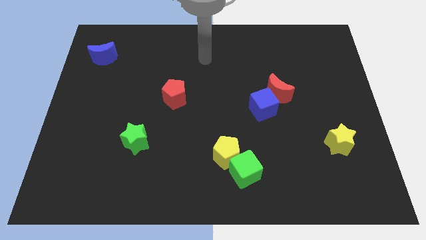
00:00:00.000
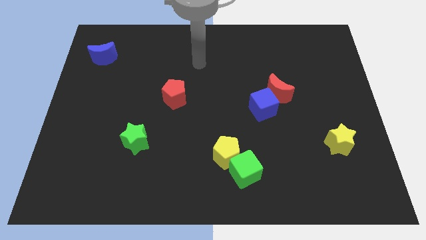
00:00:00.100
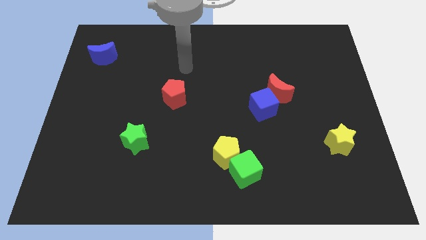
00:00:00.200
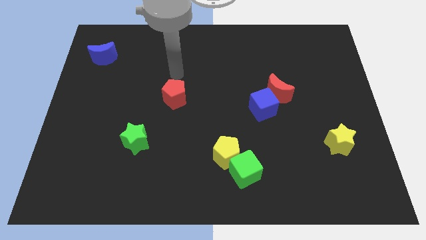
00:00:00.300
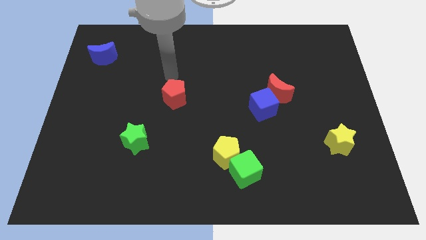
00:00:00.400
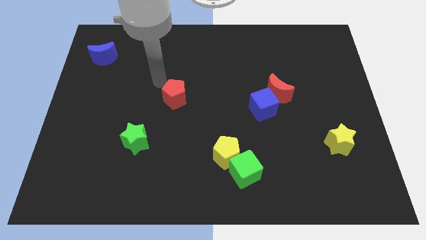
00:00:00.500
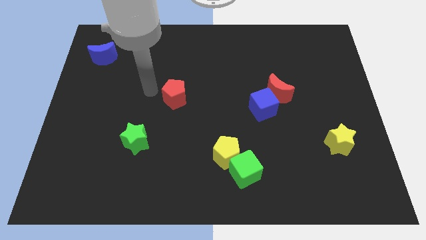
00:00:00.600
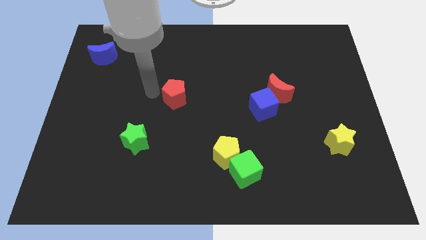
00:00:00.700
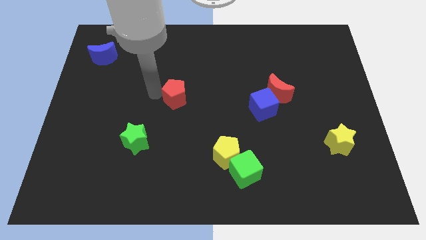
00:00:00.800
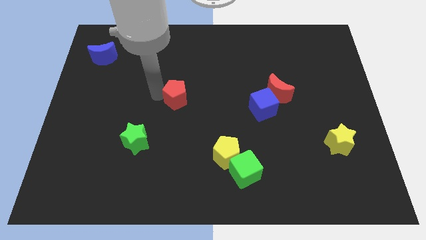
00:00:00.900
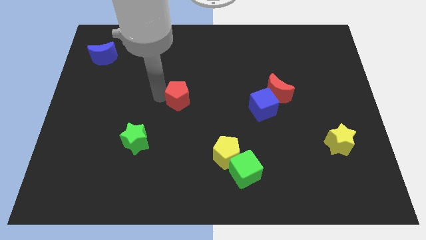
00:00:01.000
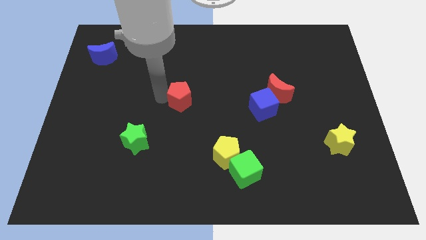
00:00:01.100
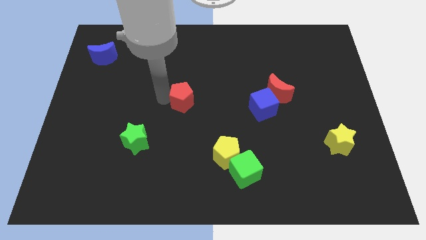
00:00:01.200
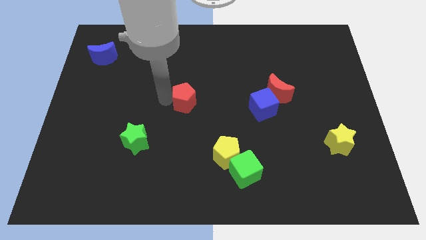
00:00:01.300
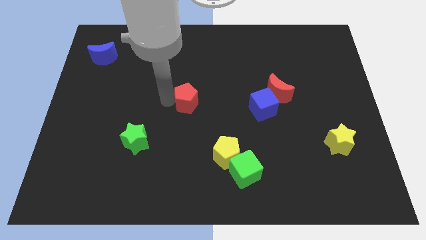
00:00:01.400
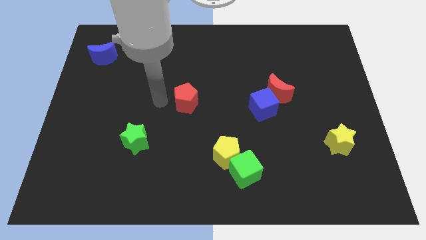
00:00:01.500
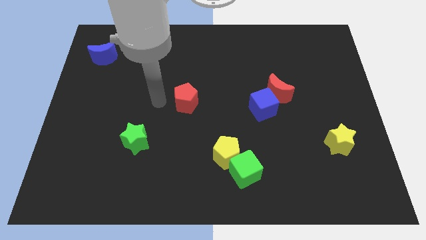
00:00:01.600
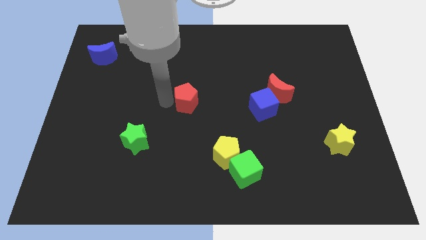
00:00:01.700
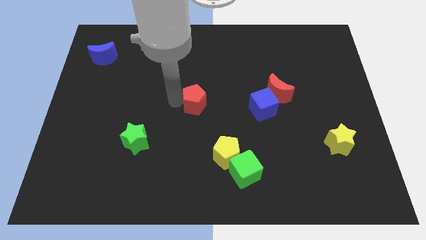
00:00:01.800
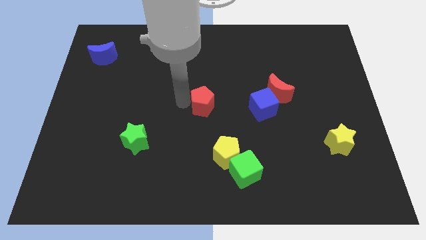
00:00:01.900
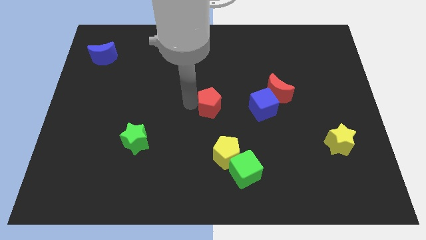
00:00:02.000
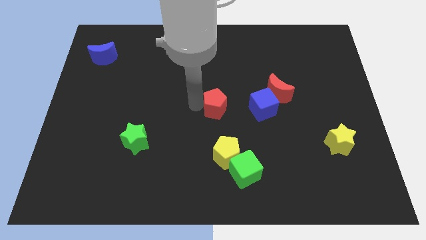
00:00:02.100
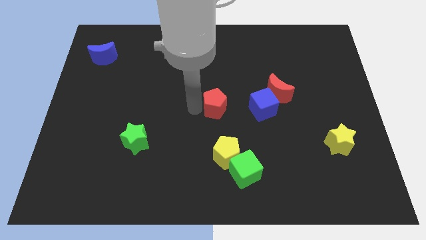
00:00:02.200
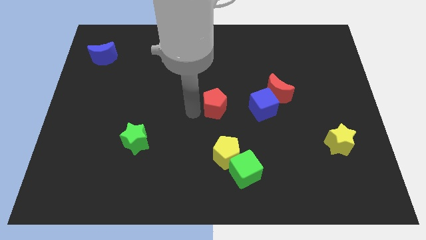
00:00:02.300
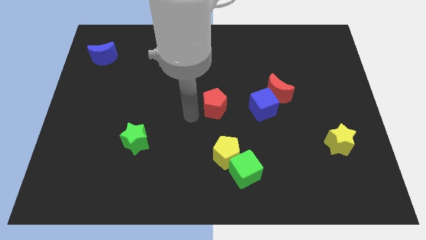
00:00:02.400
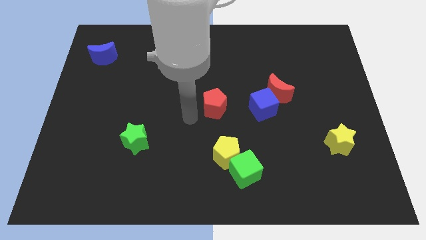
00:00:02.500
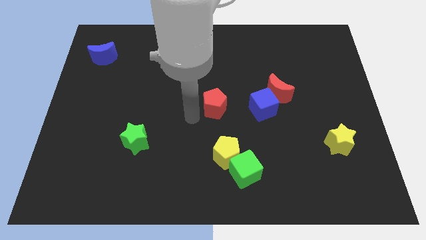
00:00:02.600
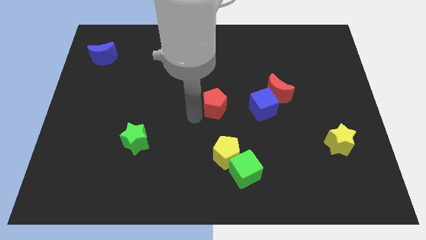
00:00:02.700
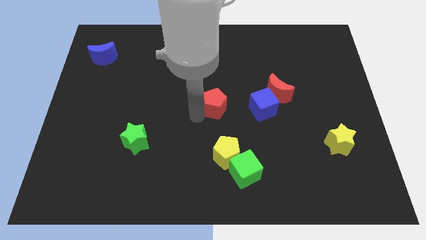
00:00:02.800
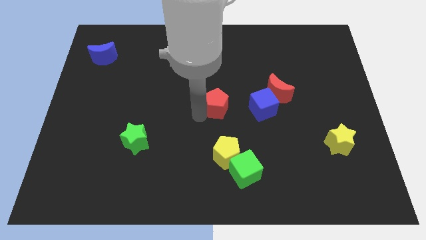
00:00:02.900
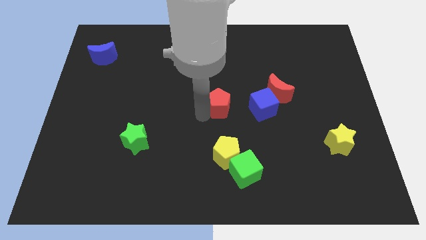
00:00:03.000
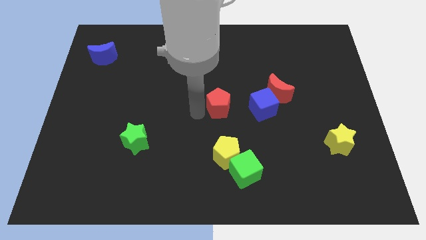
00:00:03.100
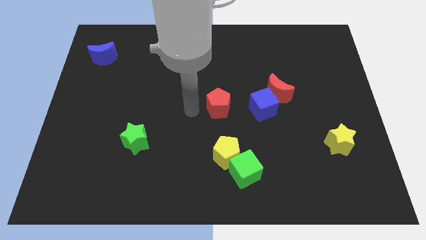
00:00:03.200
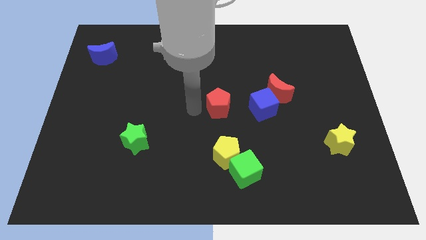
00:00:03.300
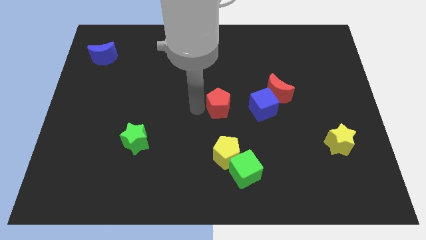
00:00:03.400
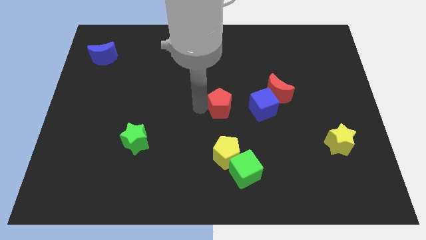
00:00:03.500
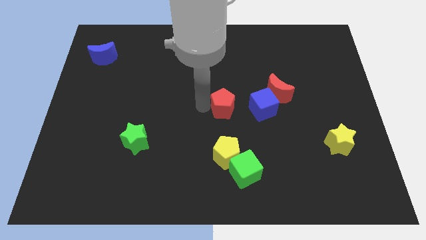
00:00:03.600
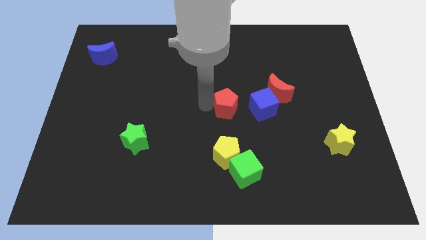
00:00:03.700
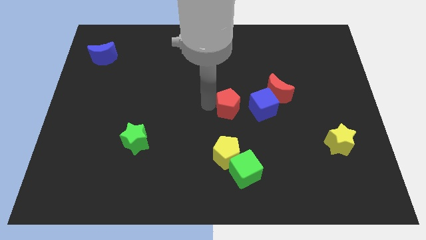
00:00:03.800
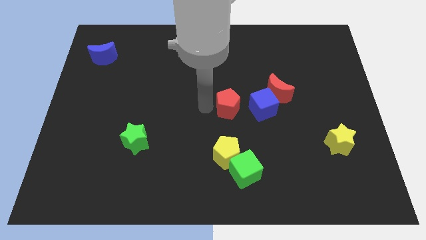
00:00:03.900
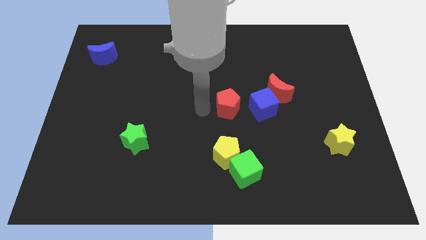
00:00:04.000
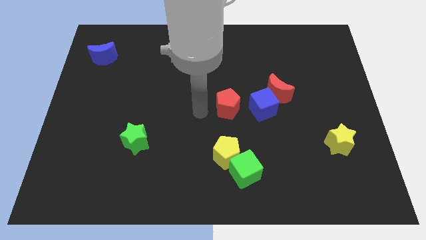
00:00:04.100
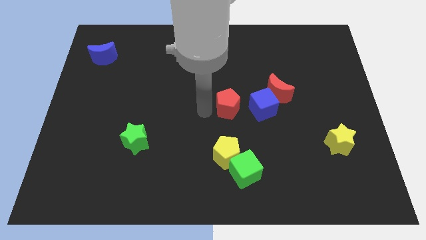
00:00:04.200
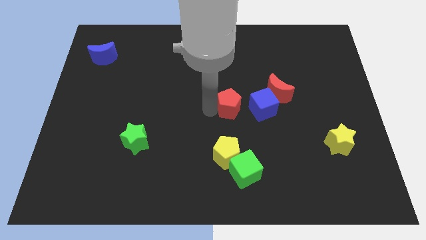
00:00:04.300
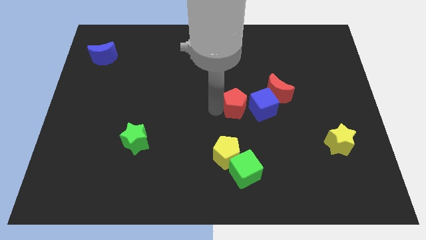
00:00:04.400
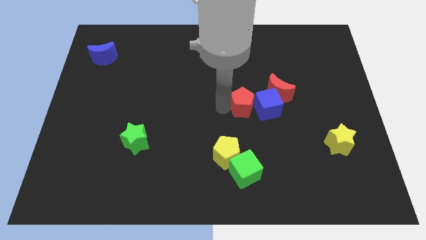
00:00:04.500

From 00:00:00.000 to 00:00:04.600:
put the red pentagon next to the blue cube

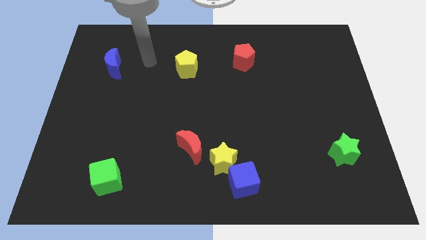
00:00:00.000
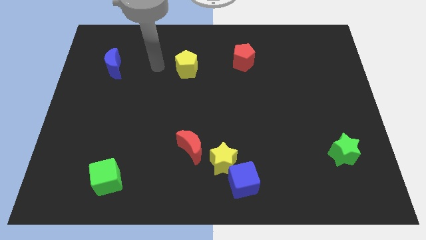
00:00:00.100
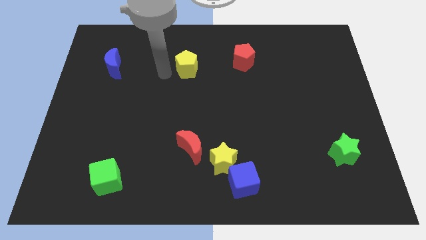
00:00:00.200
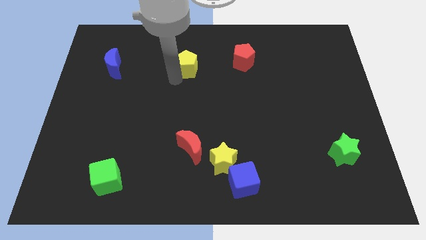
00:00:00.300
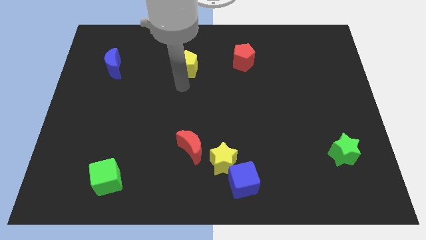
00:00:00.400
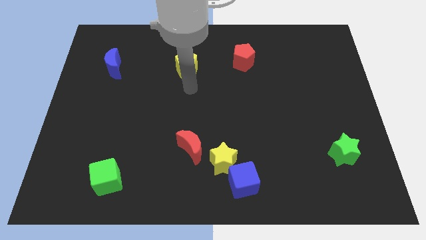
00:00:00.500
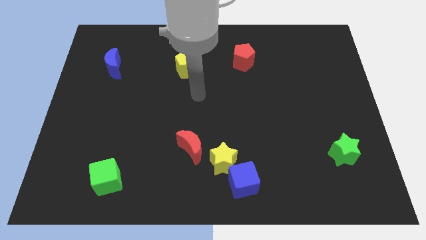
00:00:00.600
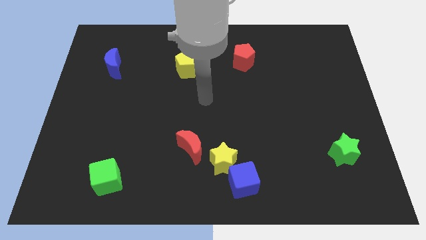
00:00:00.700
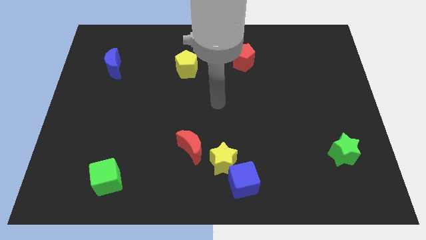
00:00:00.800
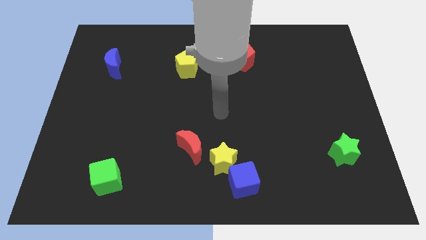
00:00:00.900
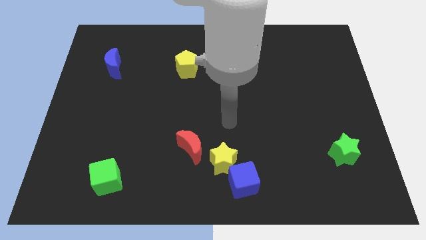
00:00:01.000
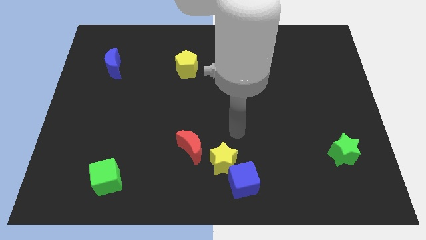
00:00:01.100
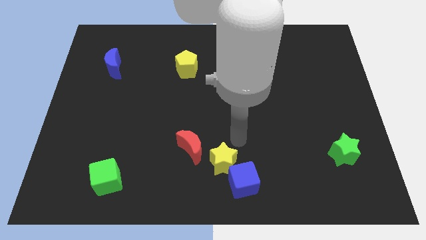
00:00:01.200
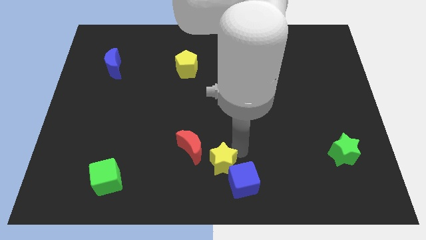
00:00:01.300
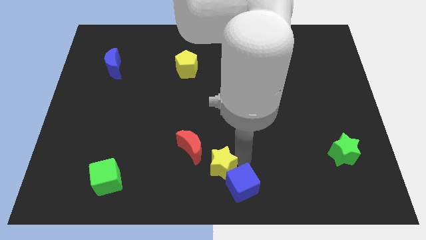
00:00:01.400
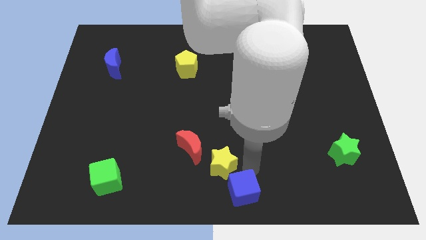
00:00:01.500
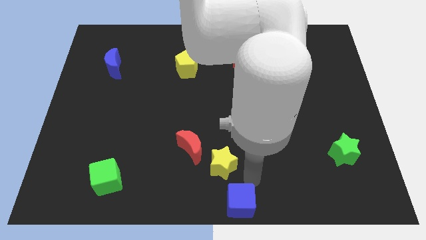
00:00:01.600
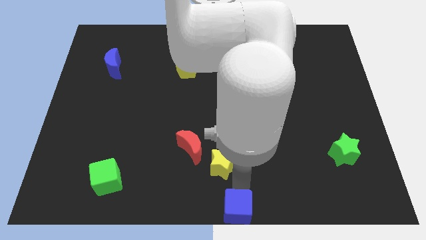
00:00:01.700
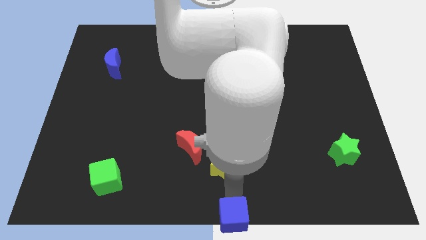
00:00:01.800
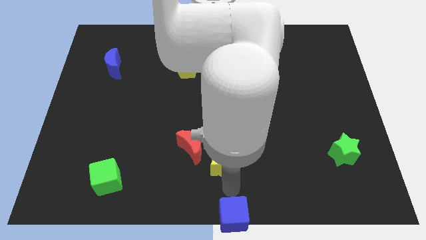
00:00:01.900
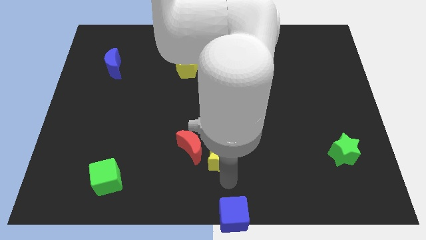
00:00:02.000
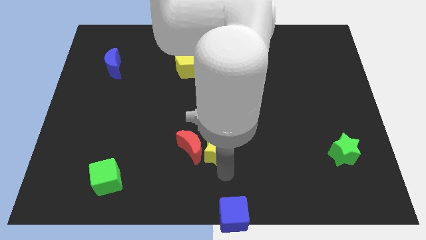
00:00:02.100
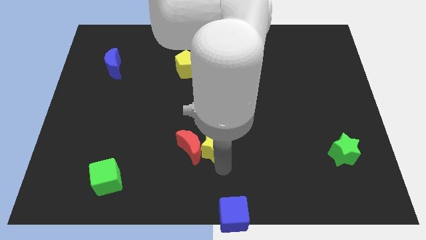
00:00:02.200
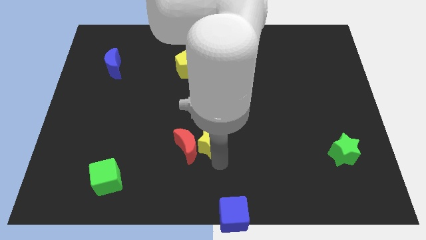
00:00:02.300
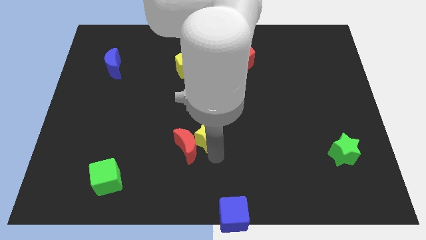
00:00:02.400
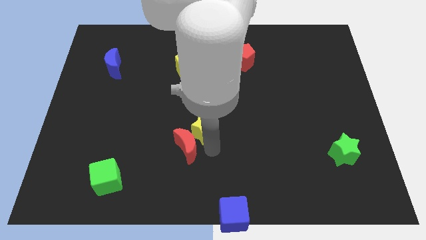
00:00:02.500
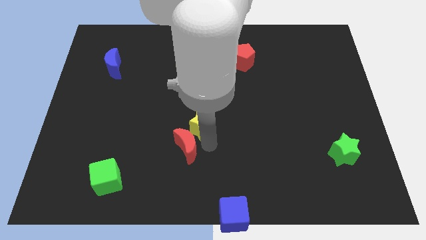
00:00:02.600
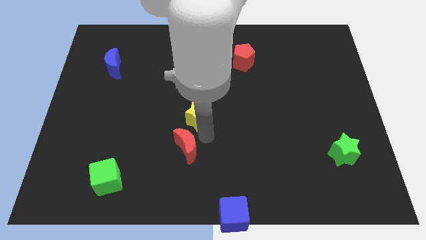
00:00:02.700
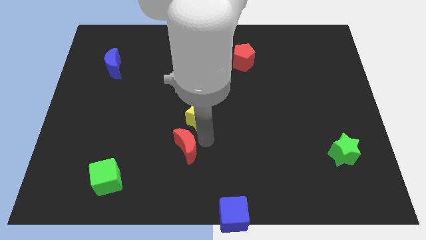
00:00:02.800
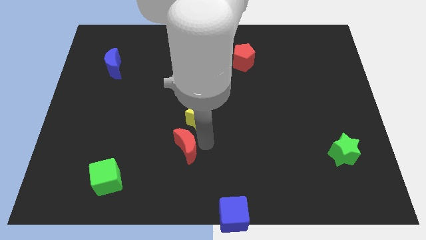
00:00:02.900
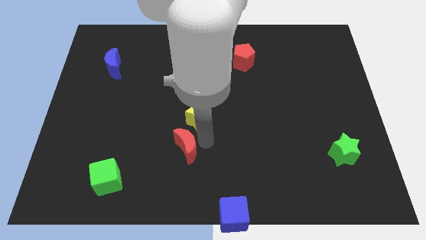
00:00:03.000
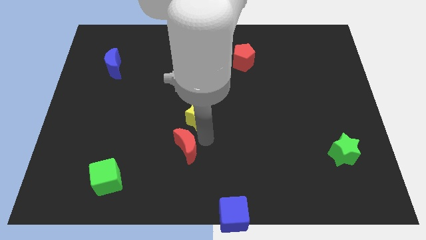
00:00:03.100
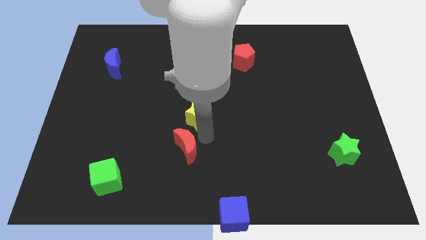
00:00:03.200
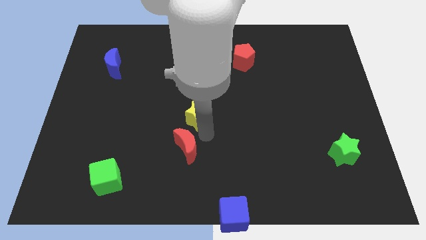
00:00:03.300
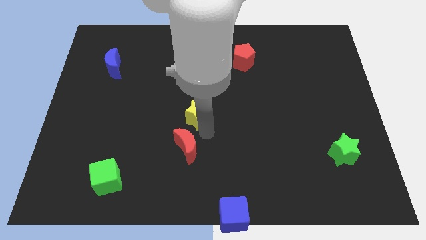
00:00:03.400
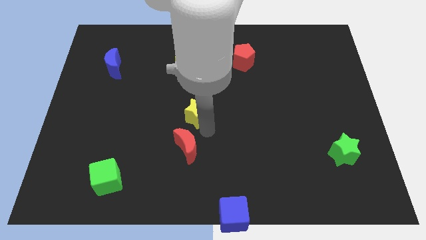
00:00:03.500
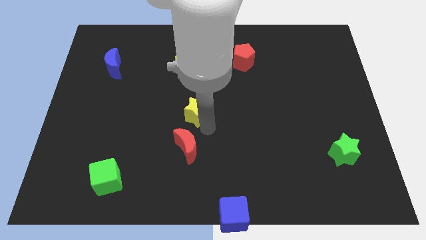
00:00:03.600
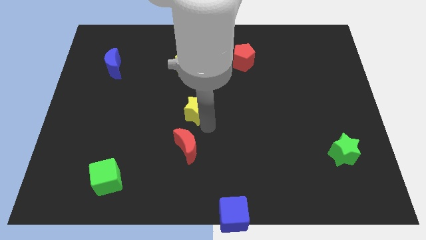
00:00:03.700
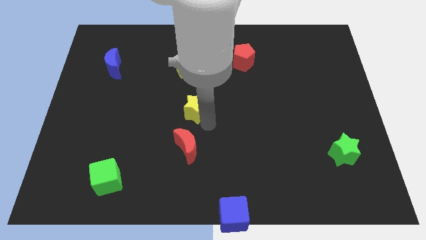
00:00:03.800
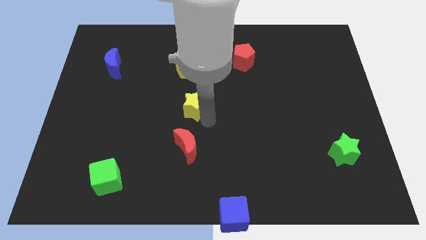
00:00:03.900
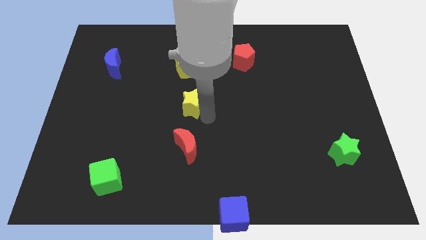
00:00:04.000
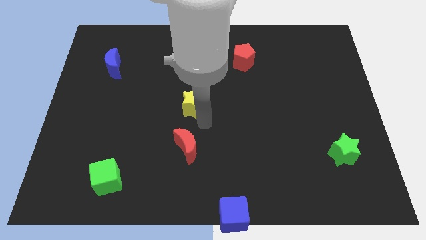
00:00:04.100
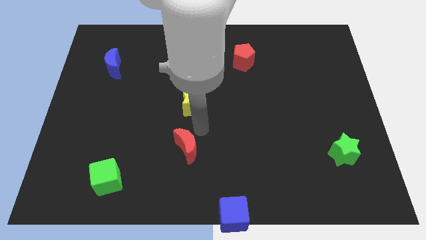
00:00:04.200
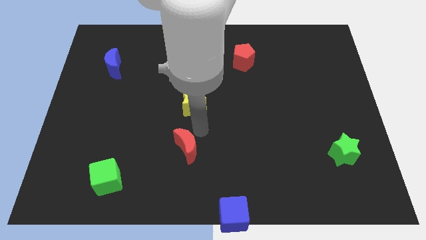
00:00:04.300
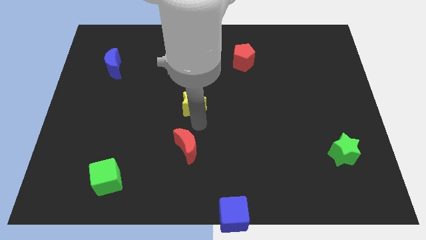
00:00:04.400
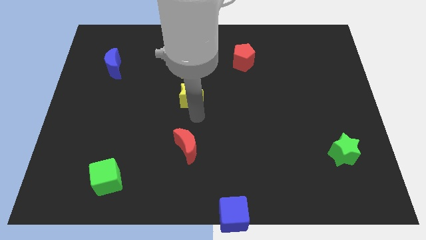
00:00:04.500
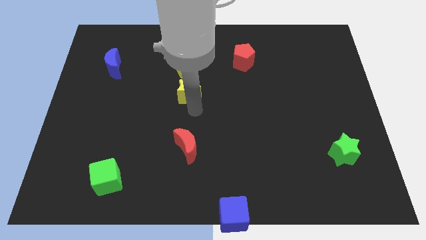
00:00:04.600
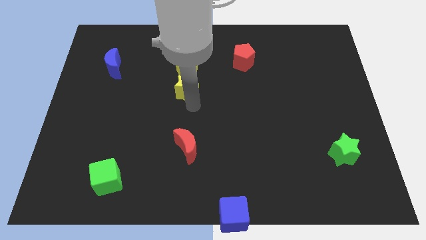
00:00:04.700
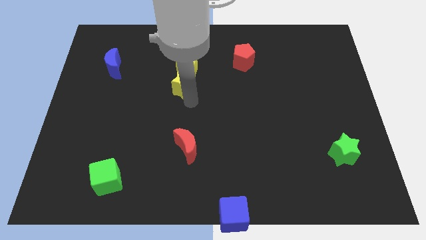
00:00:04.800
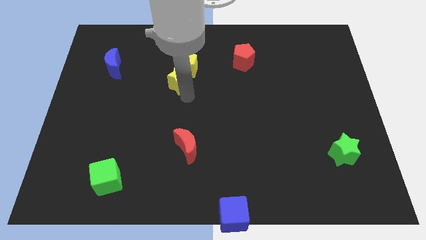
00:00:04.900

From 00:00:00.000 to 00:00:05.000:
put the yellow star close to the yellow pentagon
